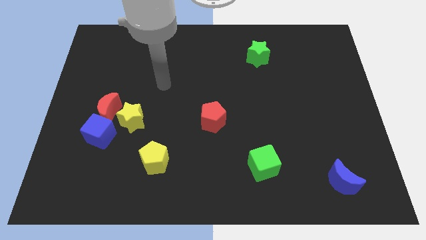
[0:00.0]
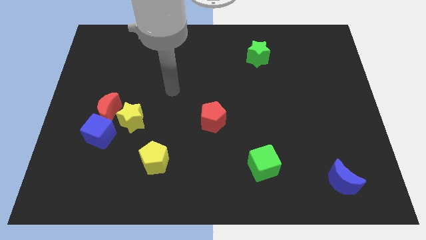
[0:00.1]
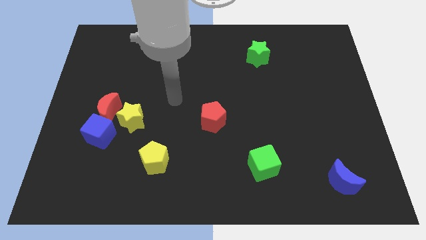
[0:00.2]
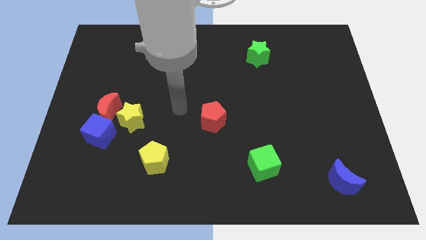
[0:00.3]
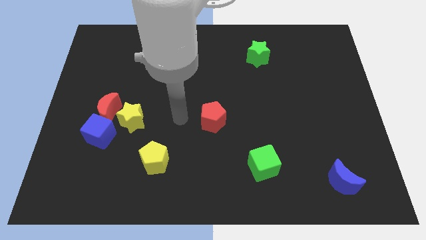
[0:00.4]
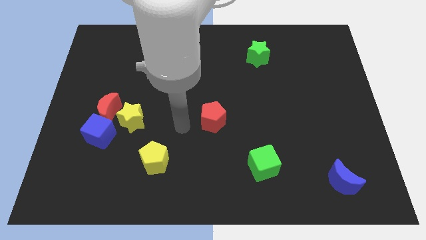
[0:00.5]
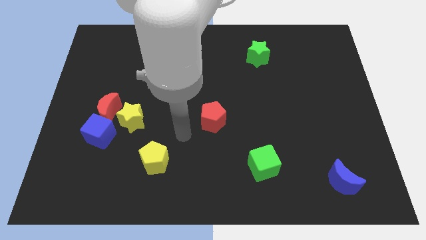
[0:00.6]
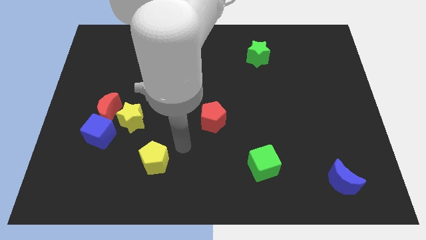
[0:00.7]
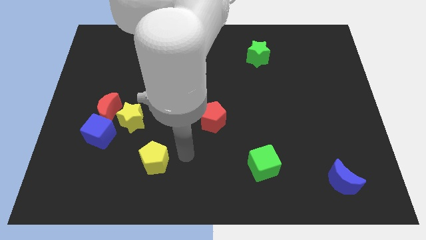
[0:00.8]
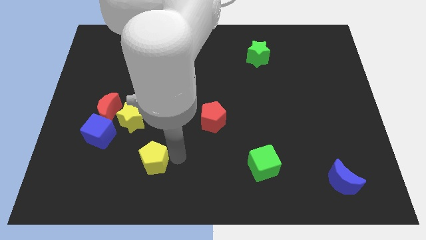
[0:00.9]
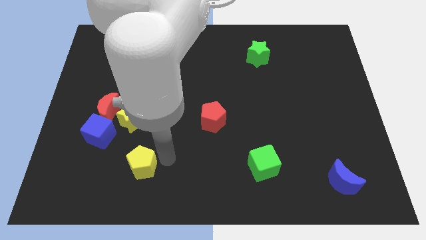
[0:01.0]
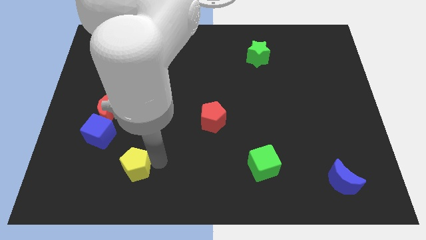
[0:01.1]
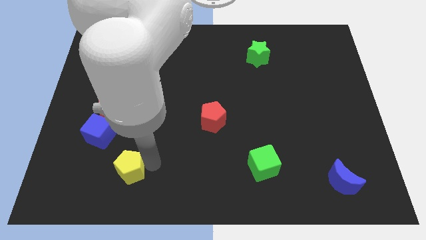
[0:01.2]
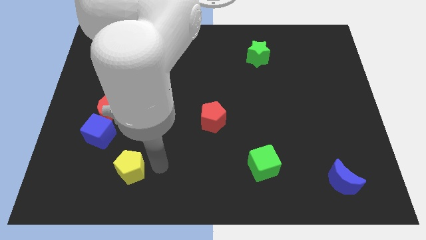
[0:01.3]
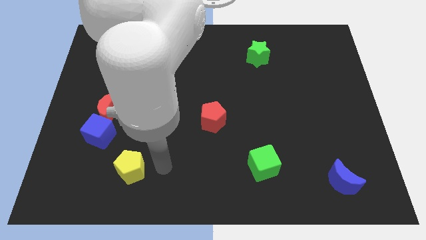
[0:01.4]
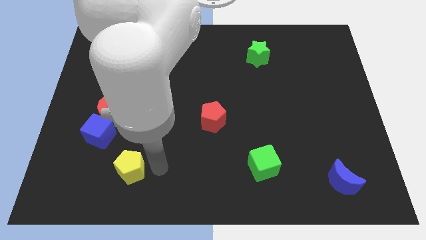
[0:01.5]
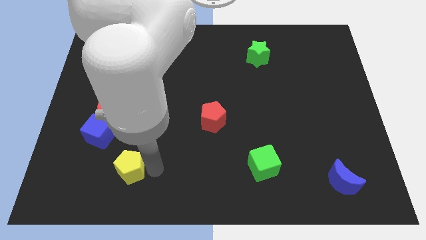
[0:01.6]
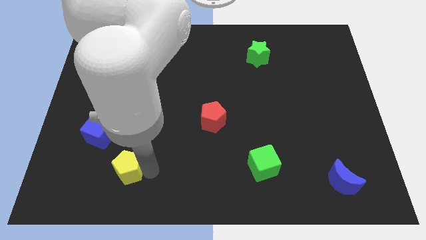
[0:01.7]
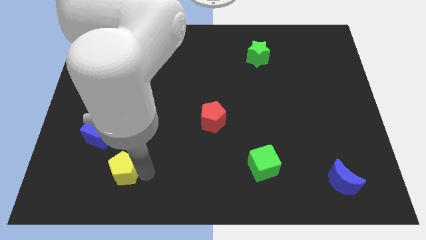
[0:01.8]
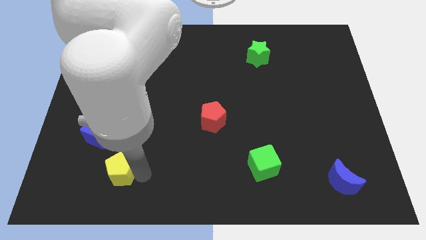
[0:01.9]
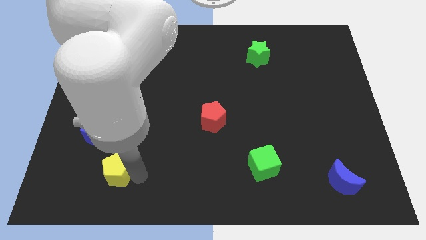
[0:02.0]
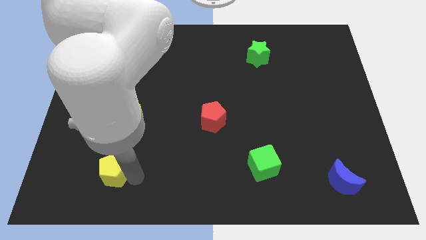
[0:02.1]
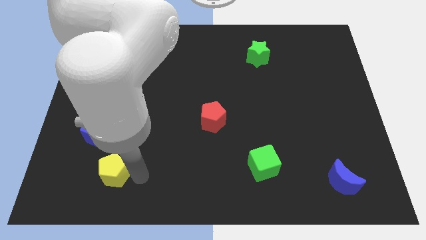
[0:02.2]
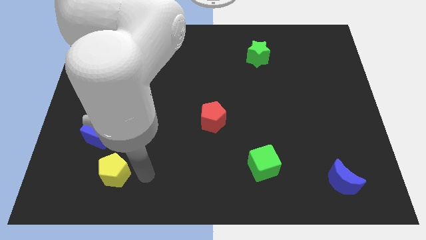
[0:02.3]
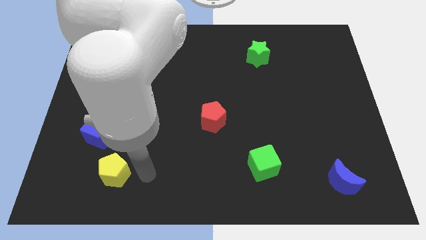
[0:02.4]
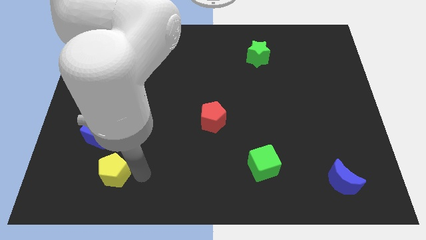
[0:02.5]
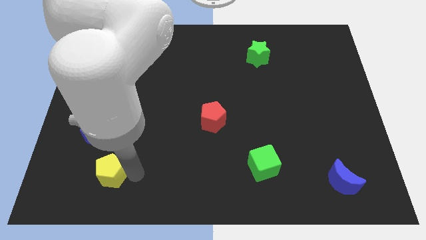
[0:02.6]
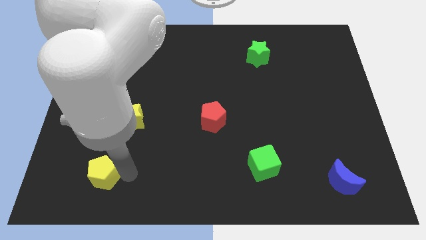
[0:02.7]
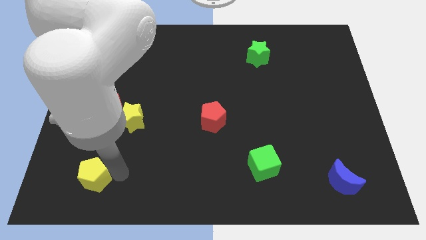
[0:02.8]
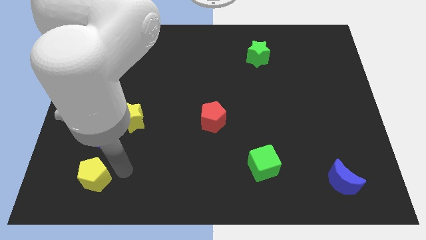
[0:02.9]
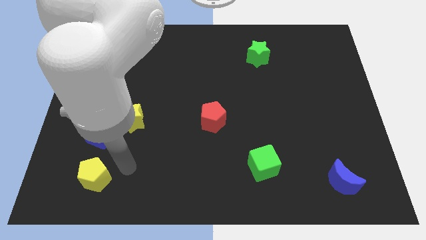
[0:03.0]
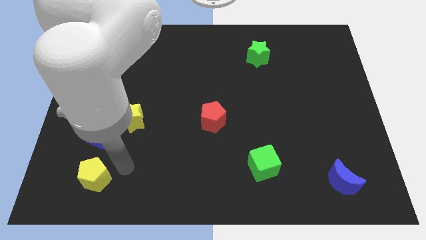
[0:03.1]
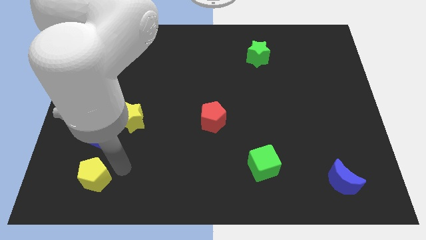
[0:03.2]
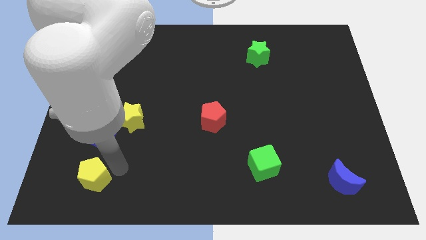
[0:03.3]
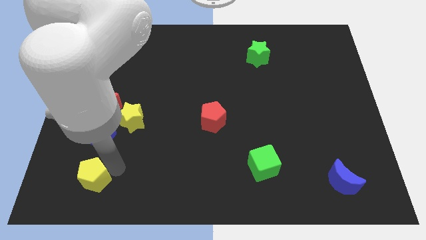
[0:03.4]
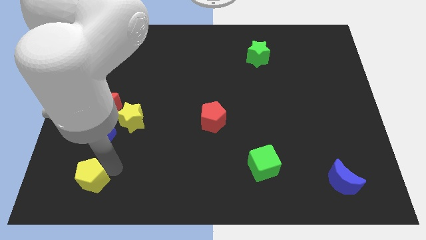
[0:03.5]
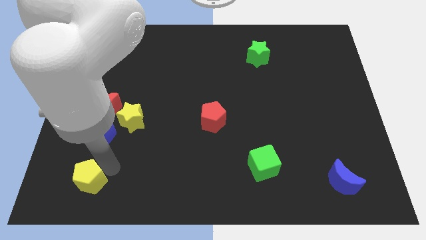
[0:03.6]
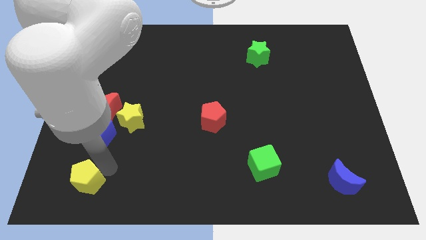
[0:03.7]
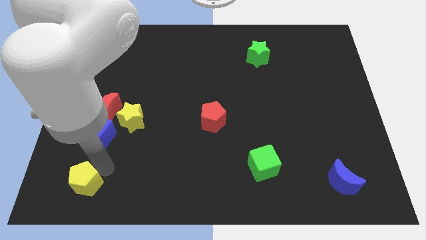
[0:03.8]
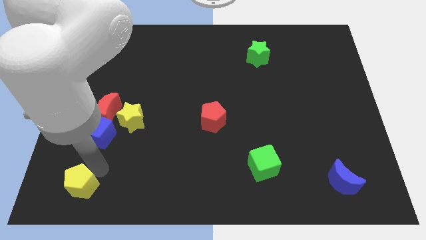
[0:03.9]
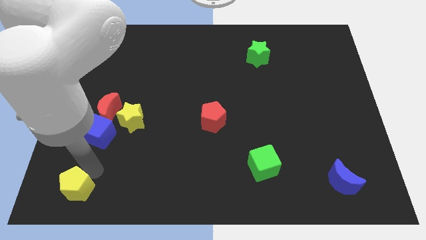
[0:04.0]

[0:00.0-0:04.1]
push the yellow pentagon to the bottom left

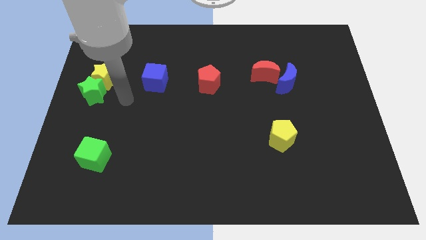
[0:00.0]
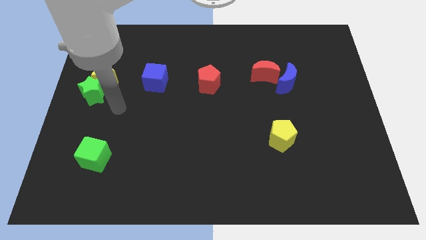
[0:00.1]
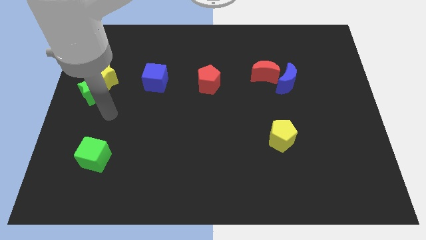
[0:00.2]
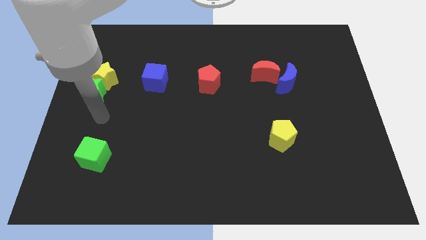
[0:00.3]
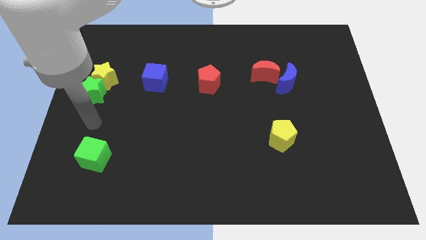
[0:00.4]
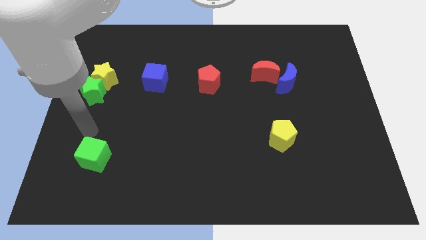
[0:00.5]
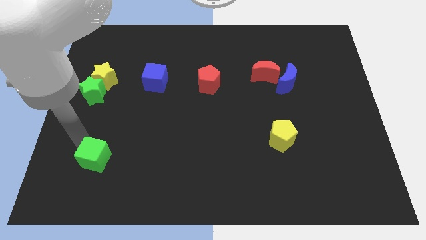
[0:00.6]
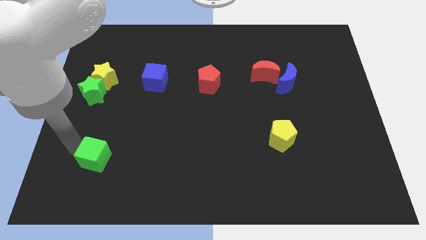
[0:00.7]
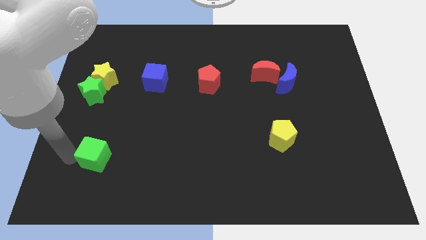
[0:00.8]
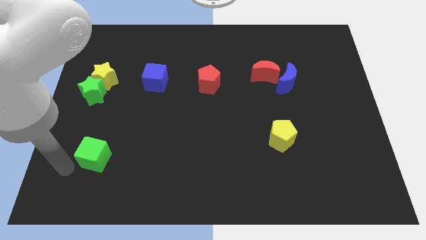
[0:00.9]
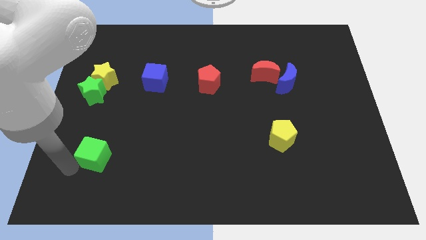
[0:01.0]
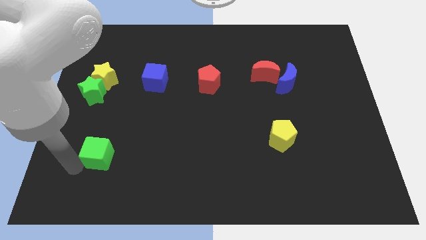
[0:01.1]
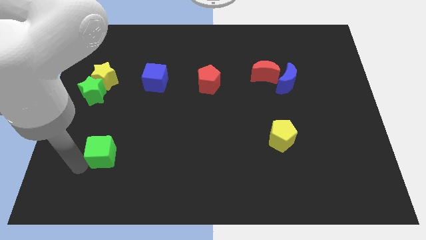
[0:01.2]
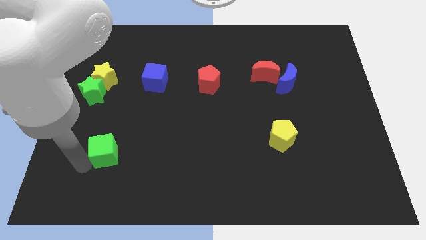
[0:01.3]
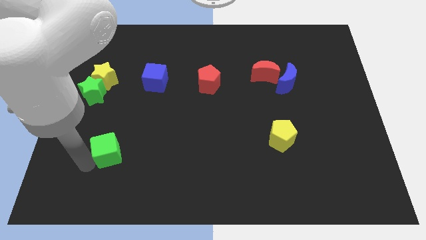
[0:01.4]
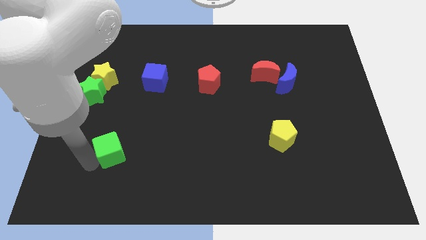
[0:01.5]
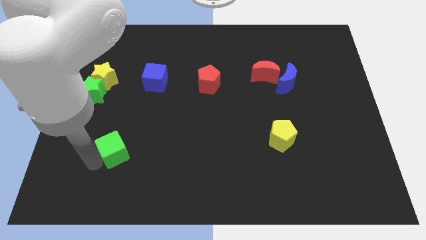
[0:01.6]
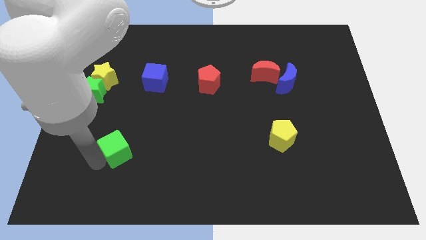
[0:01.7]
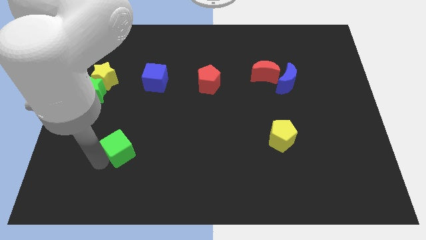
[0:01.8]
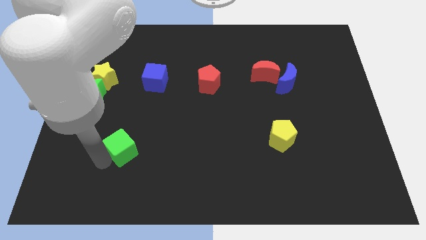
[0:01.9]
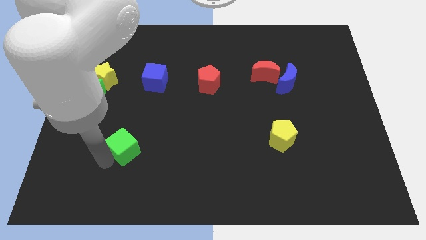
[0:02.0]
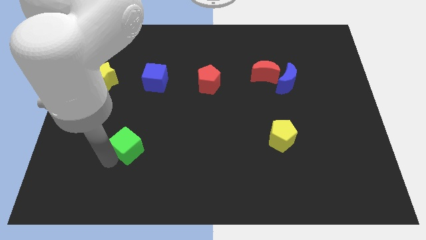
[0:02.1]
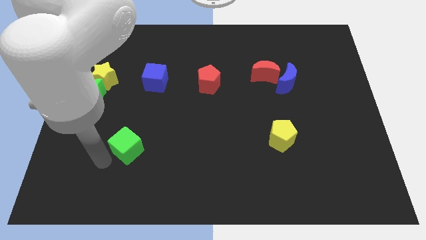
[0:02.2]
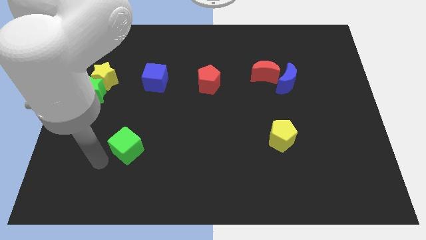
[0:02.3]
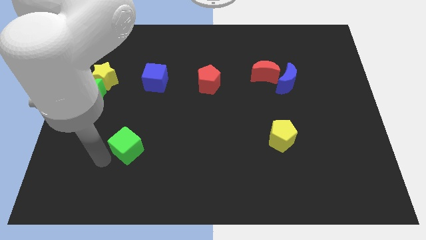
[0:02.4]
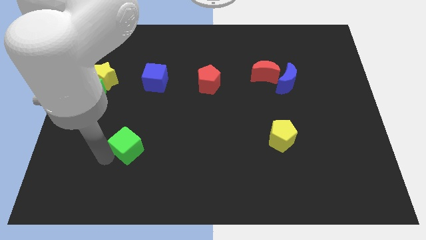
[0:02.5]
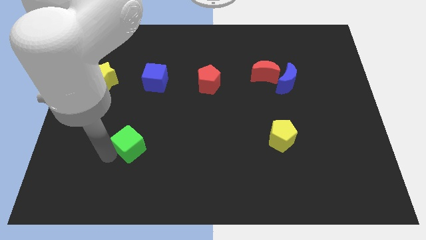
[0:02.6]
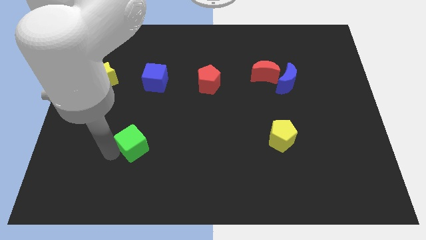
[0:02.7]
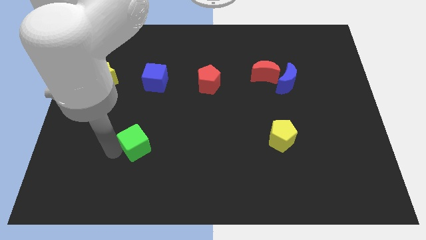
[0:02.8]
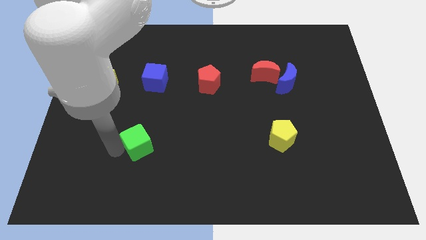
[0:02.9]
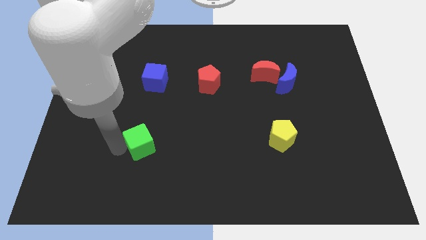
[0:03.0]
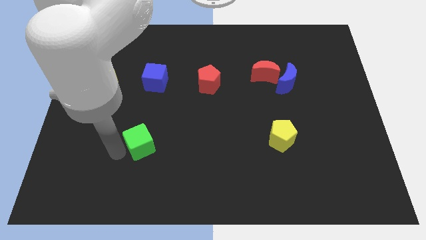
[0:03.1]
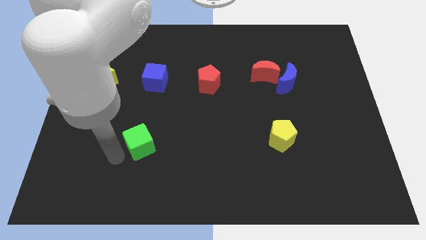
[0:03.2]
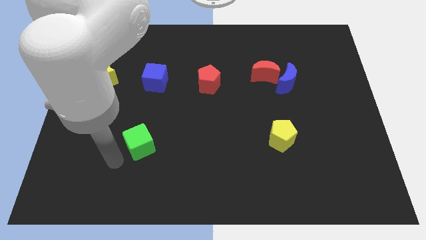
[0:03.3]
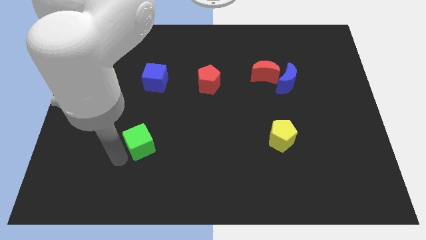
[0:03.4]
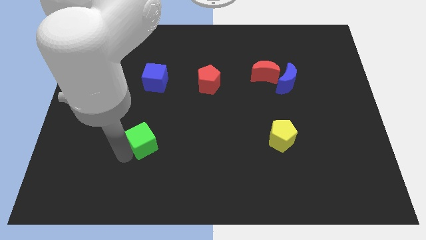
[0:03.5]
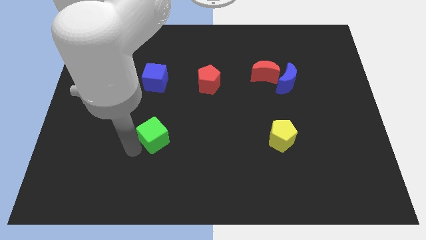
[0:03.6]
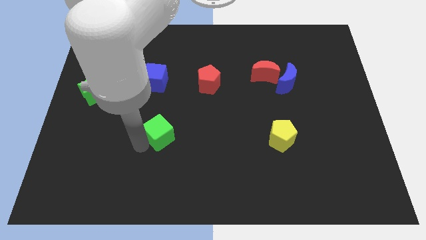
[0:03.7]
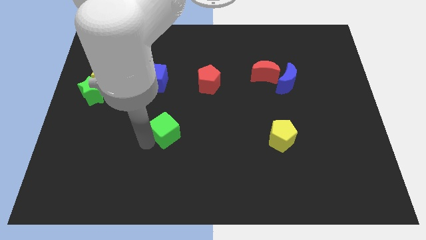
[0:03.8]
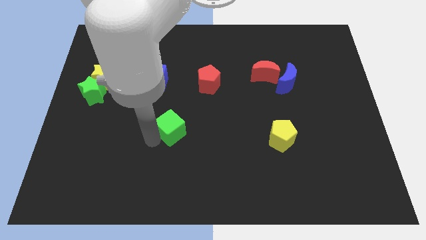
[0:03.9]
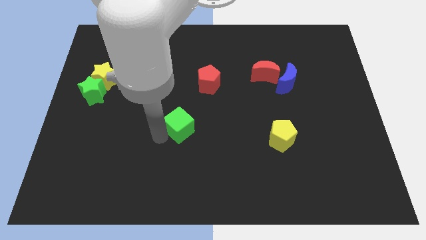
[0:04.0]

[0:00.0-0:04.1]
slide the green cube to the middle of the board
